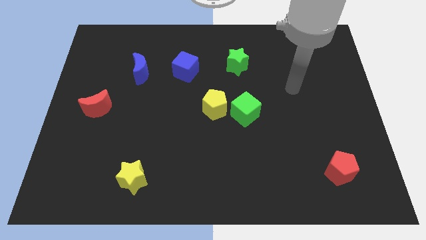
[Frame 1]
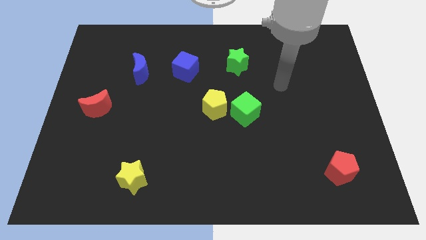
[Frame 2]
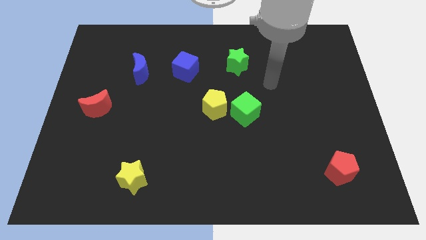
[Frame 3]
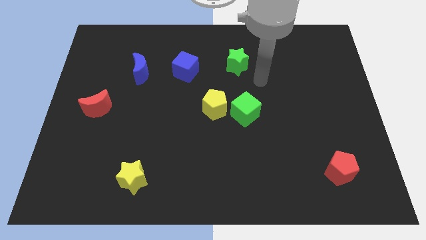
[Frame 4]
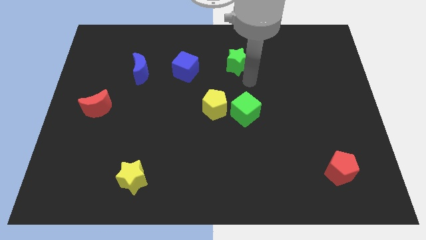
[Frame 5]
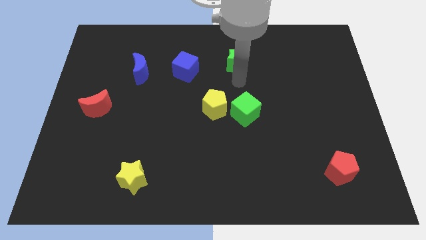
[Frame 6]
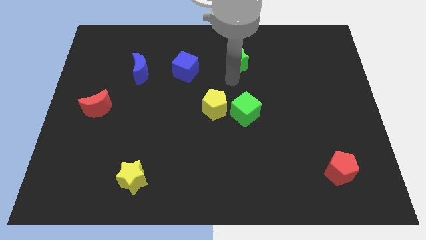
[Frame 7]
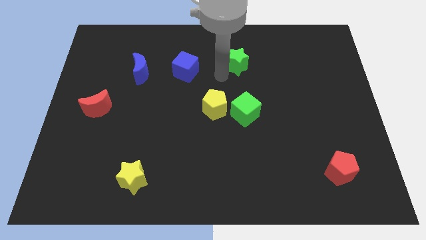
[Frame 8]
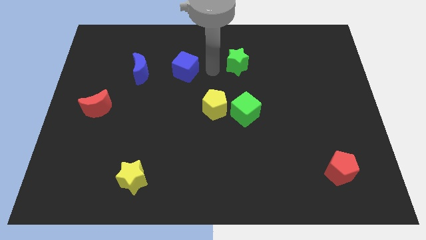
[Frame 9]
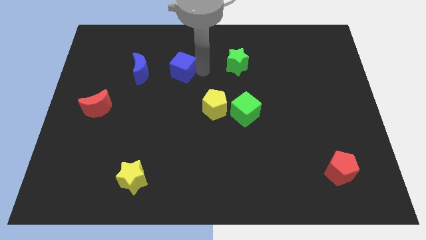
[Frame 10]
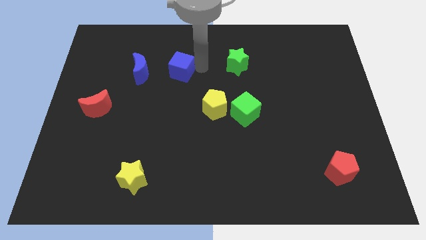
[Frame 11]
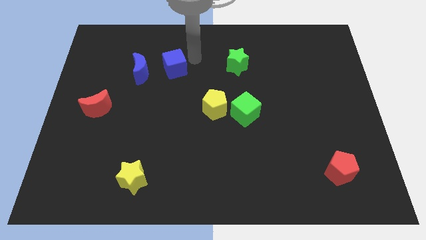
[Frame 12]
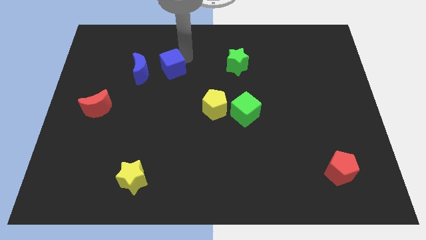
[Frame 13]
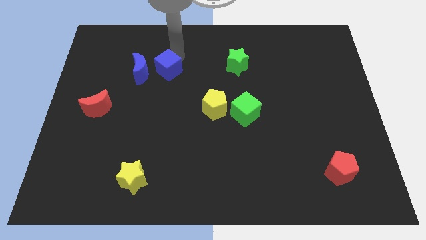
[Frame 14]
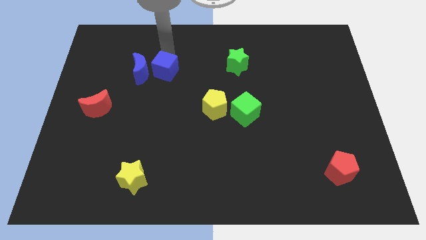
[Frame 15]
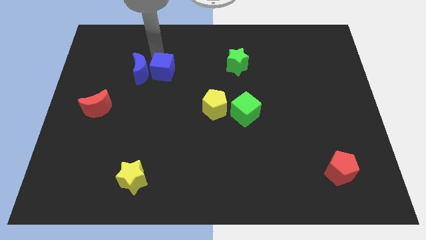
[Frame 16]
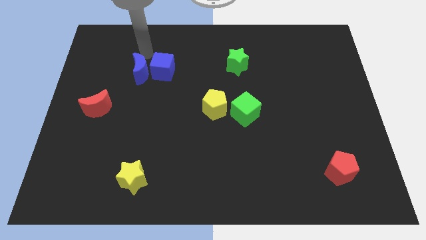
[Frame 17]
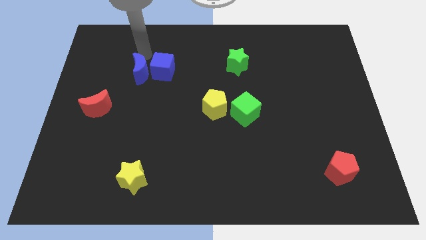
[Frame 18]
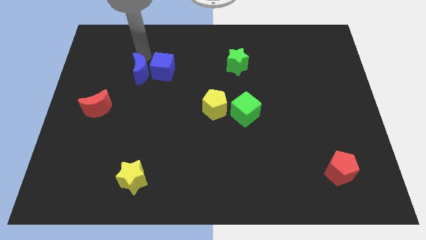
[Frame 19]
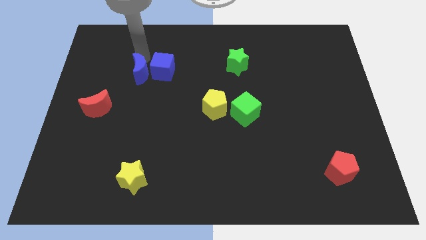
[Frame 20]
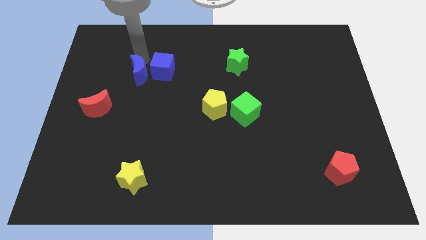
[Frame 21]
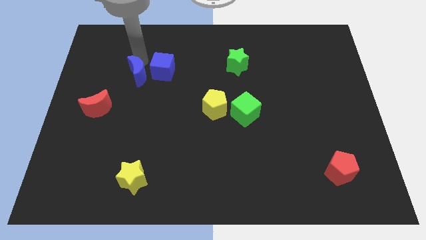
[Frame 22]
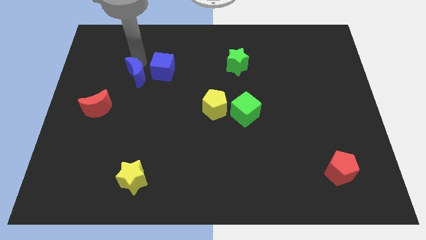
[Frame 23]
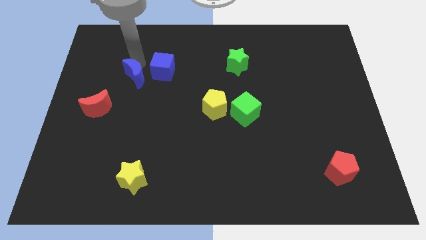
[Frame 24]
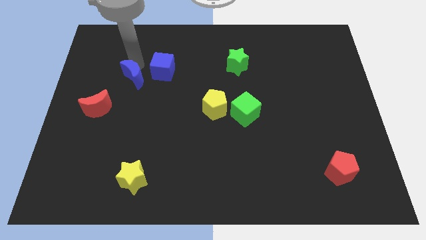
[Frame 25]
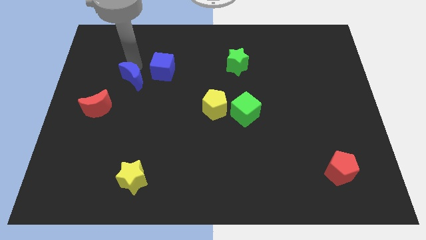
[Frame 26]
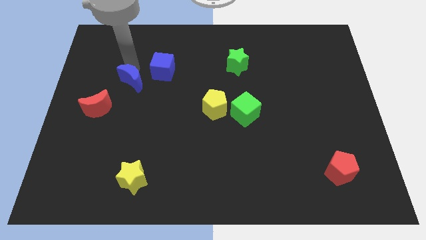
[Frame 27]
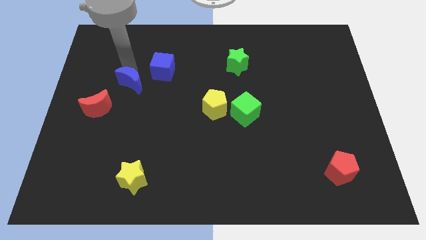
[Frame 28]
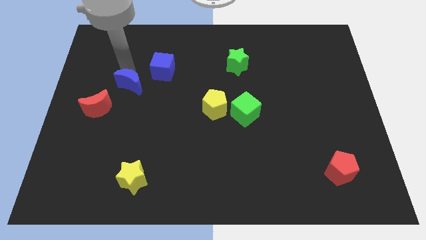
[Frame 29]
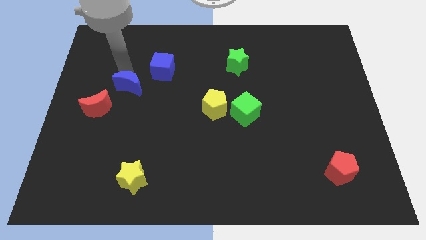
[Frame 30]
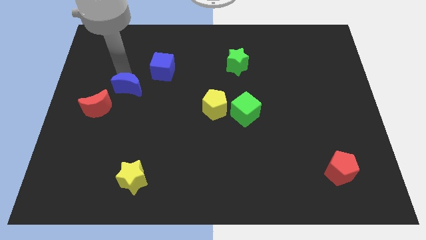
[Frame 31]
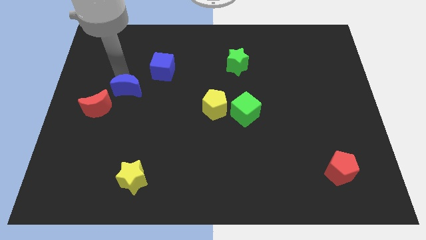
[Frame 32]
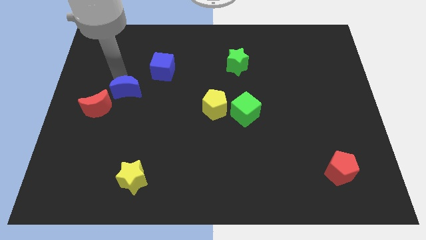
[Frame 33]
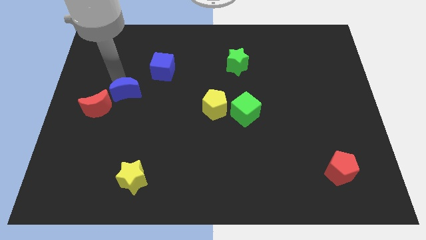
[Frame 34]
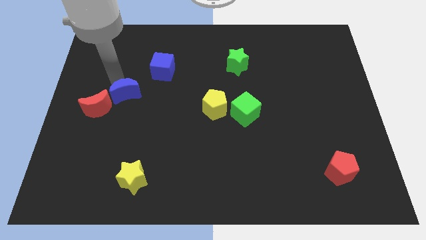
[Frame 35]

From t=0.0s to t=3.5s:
slide the blue moon a bit downwards

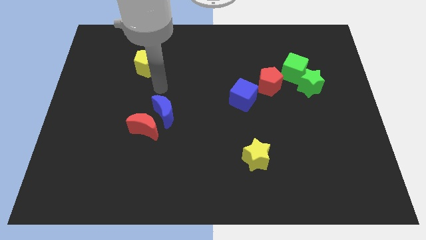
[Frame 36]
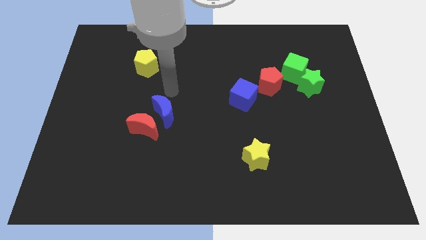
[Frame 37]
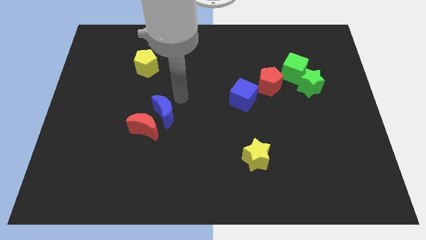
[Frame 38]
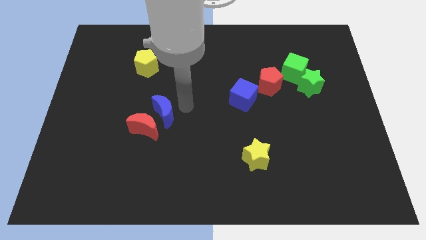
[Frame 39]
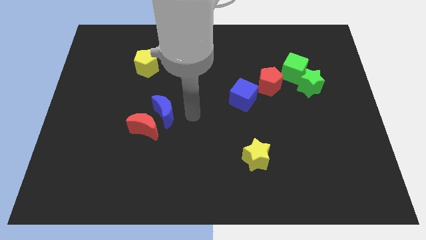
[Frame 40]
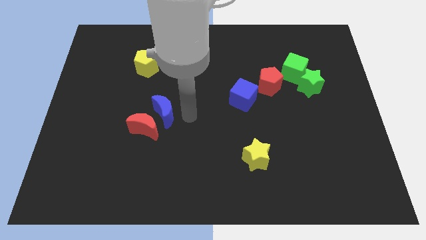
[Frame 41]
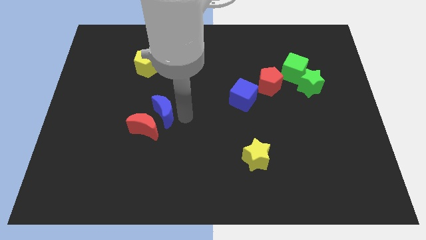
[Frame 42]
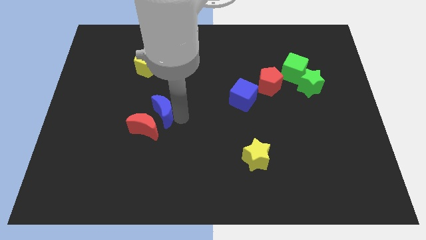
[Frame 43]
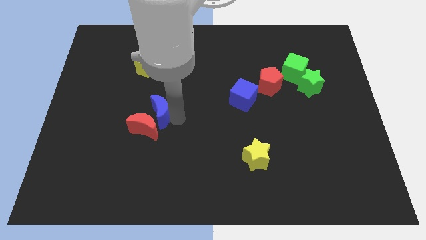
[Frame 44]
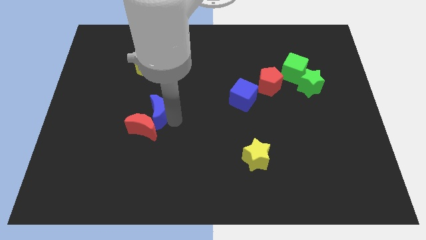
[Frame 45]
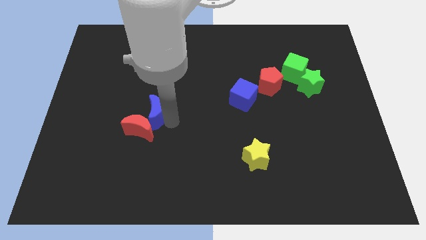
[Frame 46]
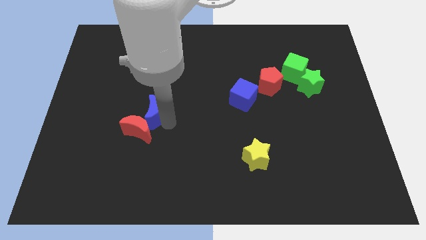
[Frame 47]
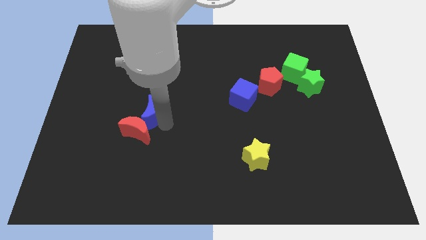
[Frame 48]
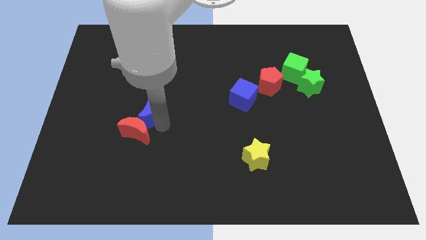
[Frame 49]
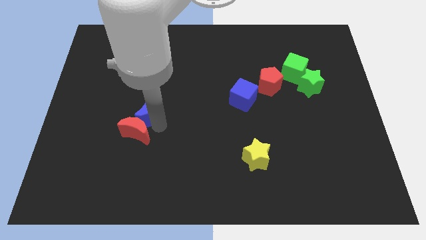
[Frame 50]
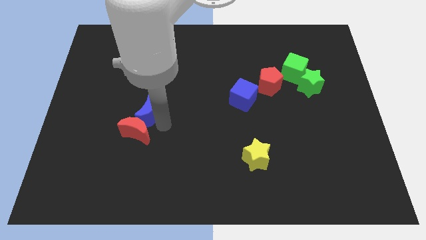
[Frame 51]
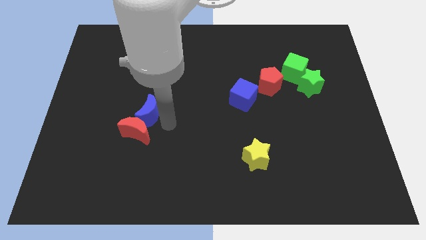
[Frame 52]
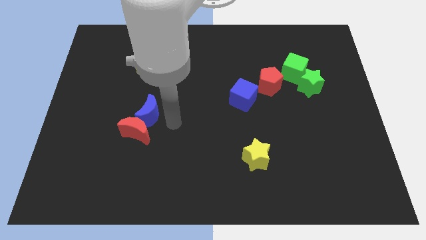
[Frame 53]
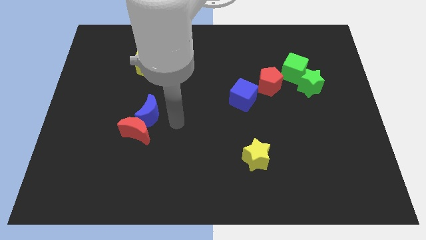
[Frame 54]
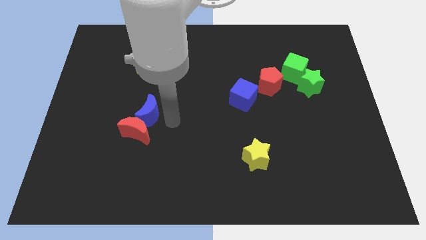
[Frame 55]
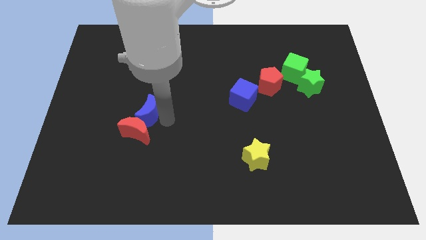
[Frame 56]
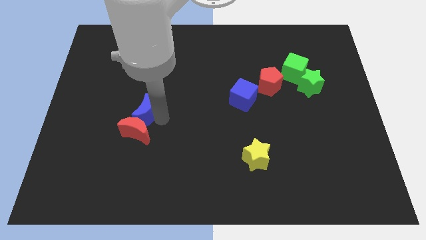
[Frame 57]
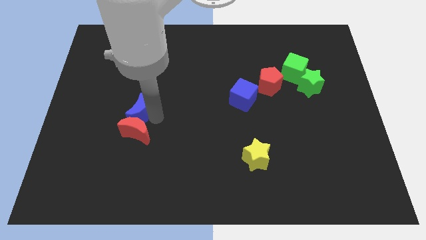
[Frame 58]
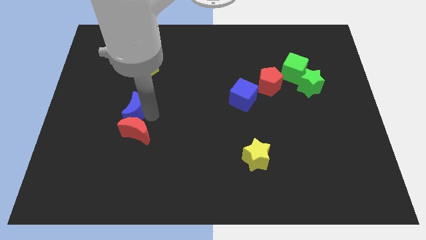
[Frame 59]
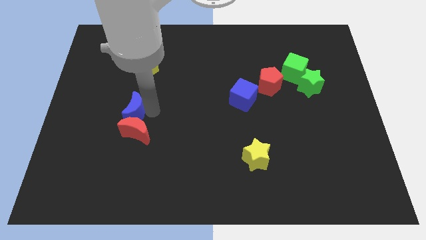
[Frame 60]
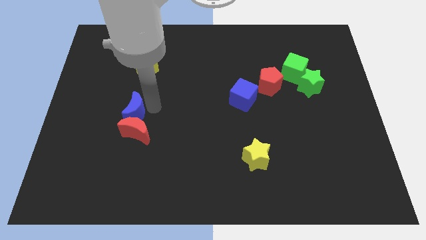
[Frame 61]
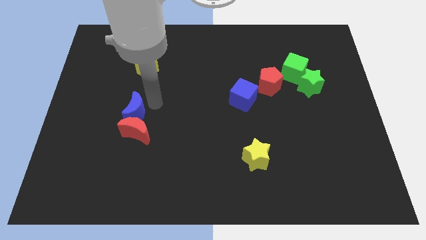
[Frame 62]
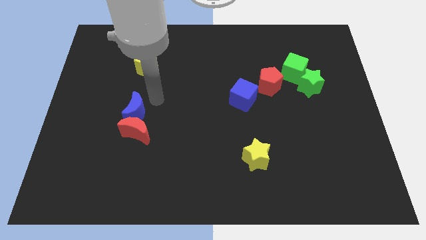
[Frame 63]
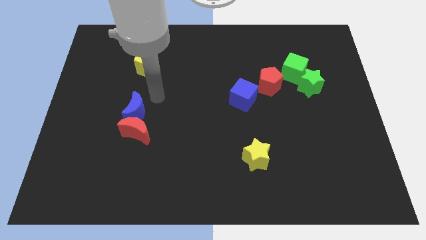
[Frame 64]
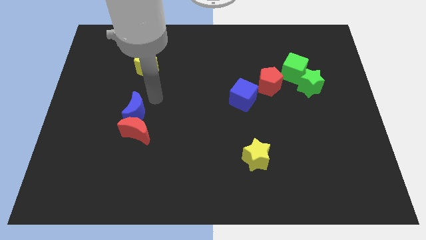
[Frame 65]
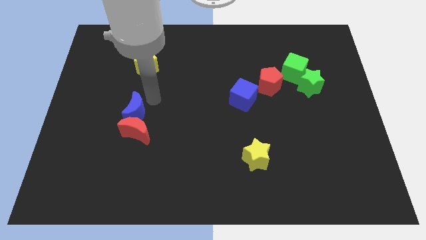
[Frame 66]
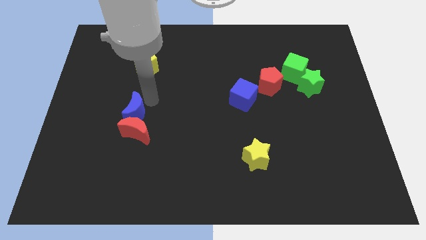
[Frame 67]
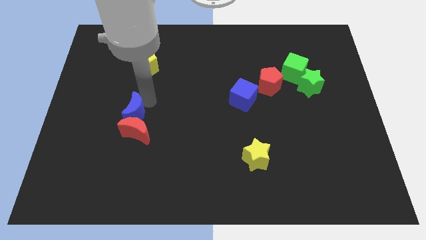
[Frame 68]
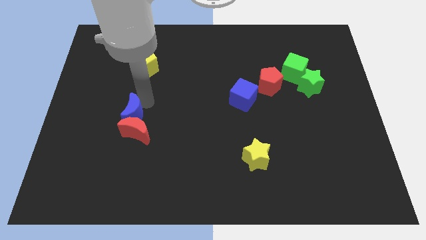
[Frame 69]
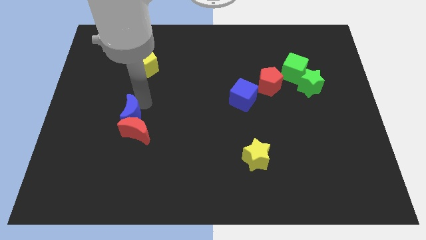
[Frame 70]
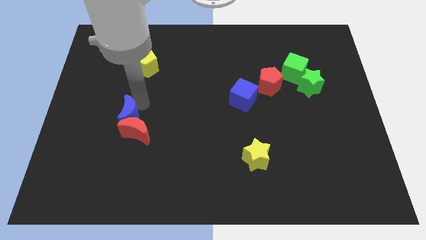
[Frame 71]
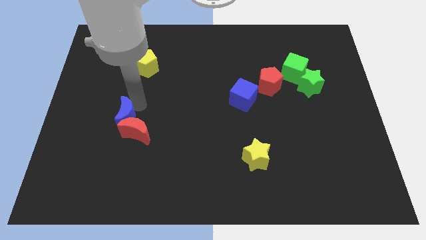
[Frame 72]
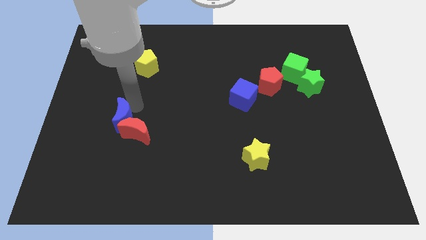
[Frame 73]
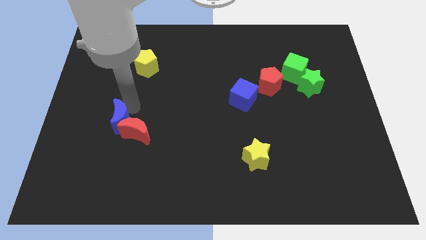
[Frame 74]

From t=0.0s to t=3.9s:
slide the blue moon down and left diagonally a little

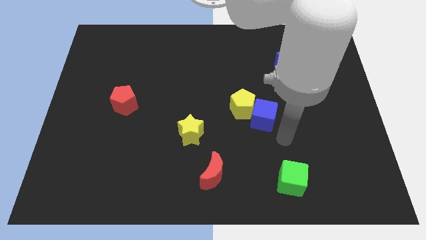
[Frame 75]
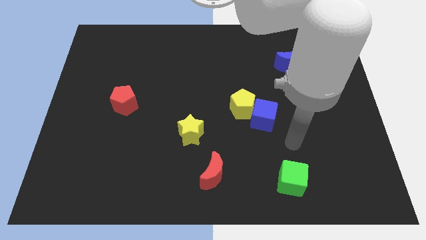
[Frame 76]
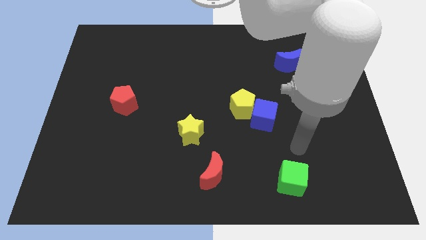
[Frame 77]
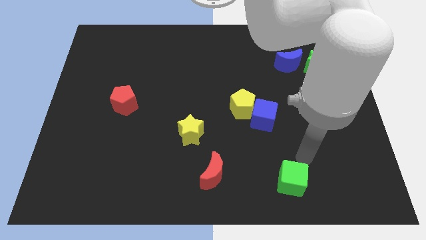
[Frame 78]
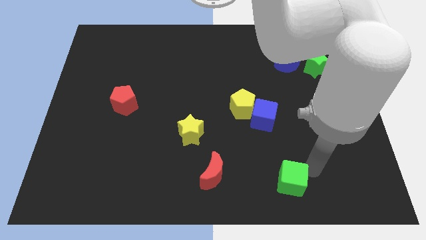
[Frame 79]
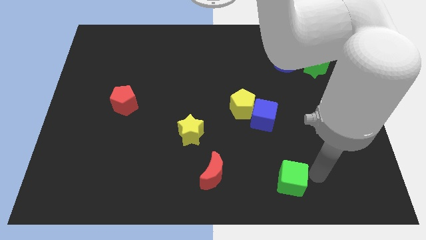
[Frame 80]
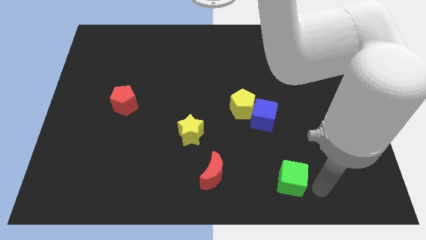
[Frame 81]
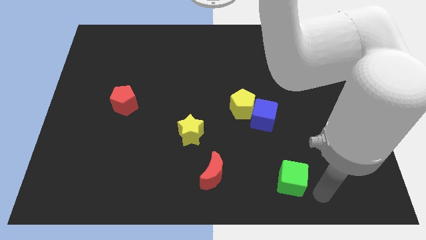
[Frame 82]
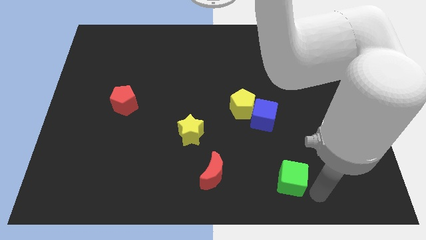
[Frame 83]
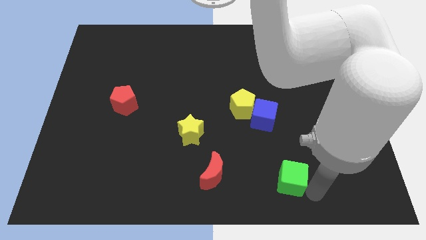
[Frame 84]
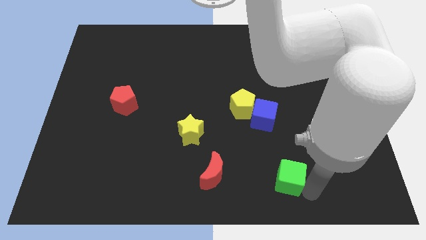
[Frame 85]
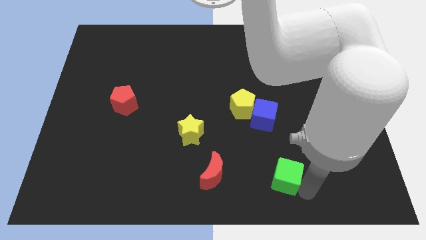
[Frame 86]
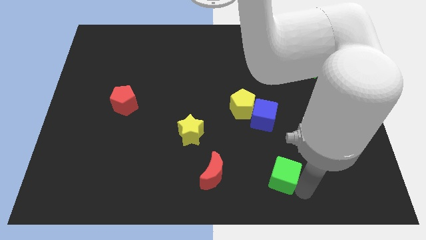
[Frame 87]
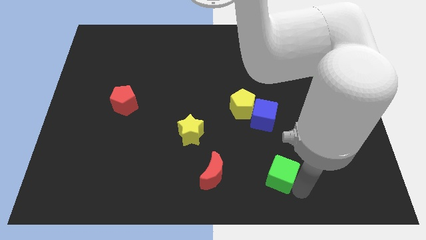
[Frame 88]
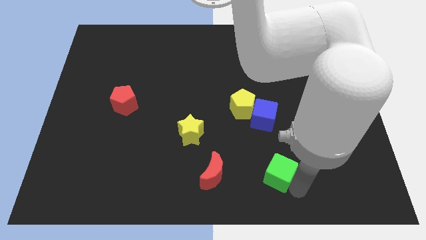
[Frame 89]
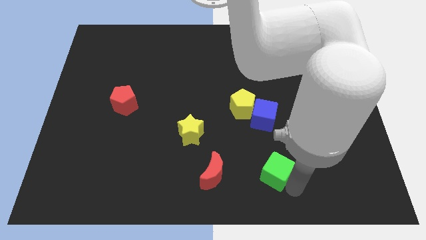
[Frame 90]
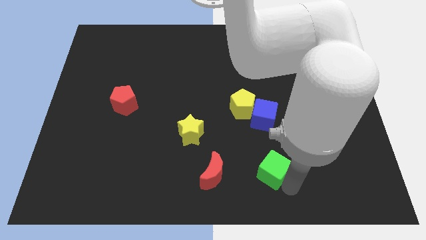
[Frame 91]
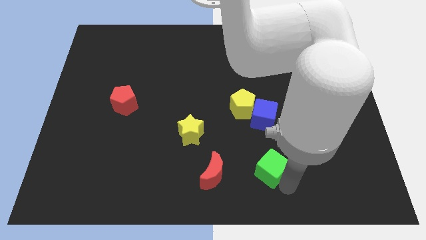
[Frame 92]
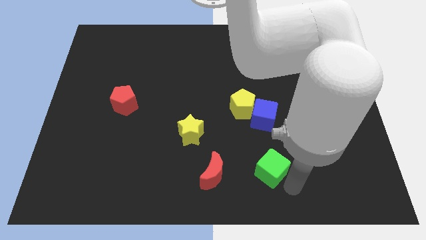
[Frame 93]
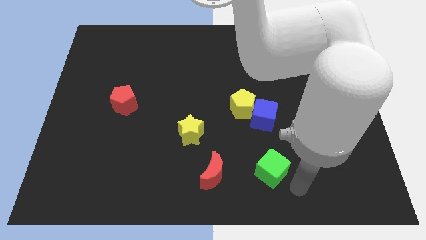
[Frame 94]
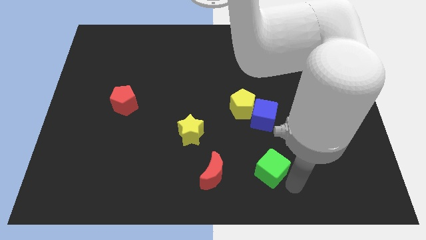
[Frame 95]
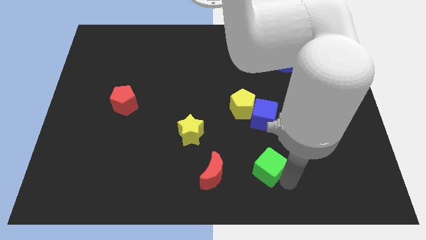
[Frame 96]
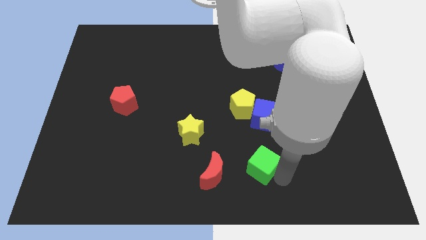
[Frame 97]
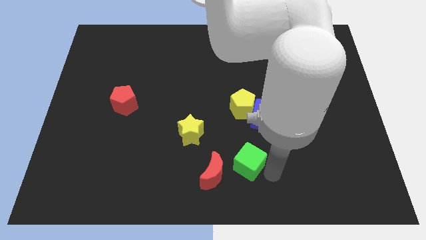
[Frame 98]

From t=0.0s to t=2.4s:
slide the green cube a little upwards and then to the left
